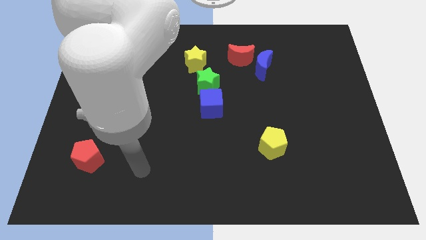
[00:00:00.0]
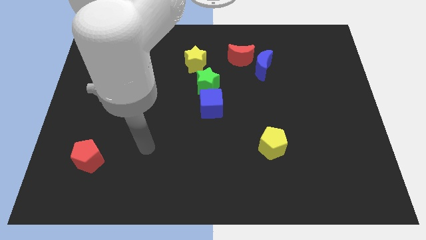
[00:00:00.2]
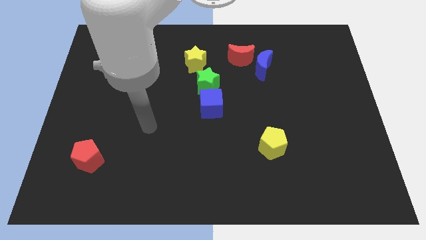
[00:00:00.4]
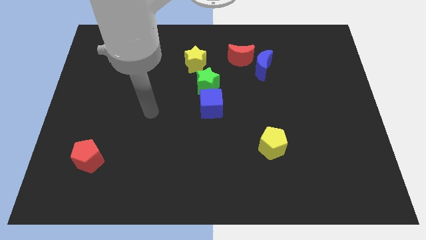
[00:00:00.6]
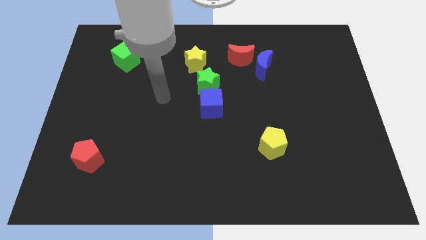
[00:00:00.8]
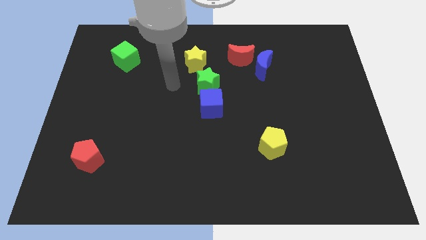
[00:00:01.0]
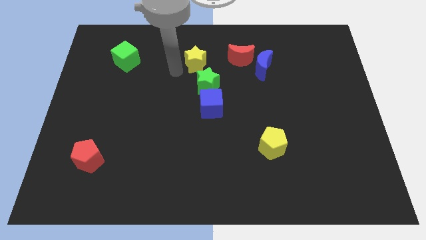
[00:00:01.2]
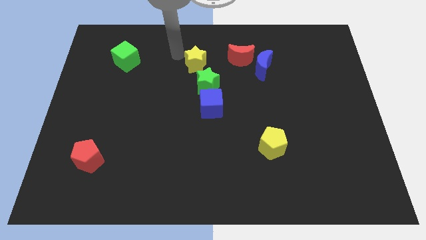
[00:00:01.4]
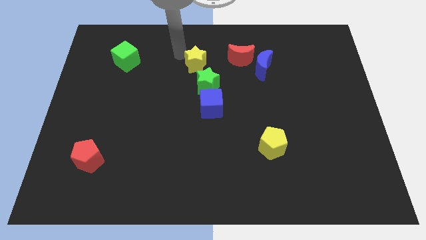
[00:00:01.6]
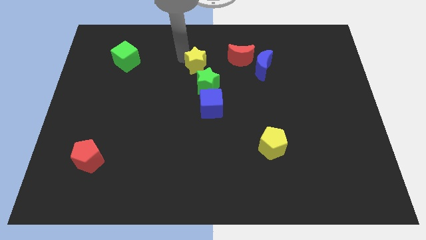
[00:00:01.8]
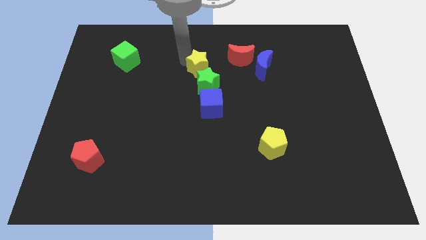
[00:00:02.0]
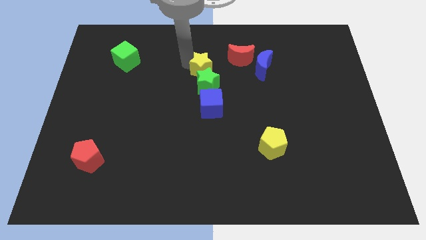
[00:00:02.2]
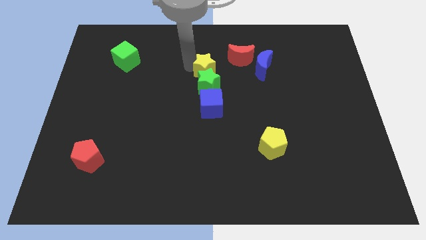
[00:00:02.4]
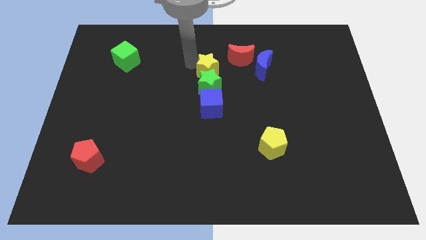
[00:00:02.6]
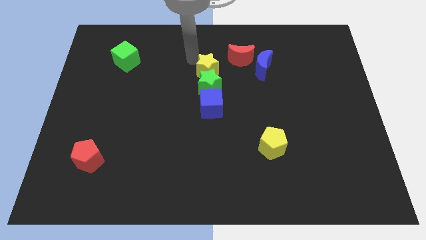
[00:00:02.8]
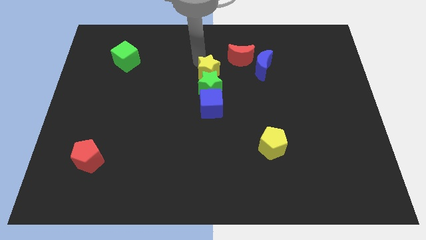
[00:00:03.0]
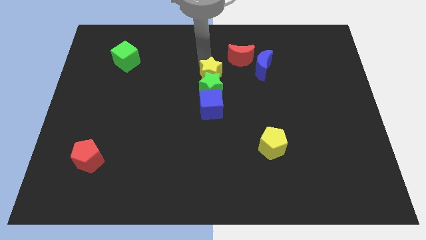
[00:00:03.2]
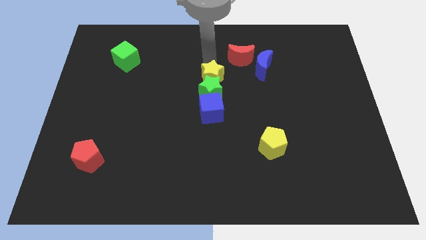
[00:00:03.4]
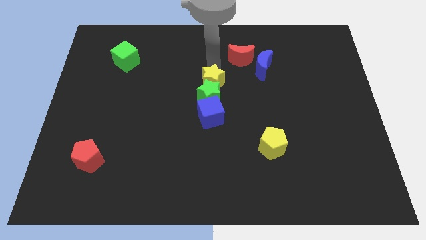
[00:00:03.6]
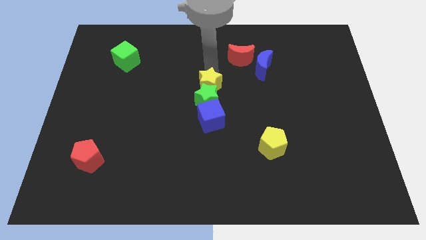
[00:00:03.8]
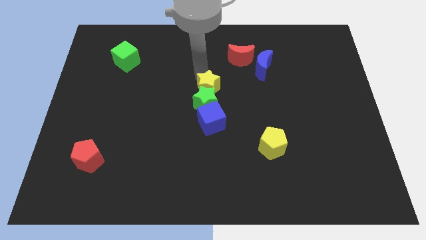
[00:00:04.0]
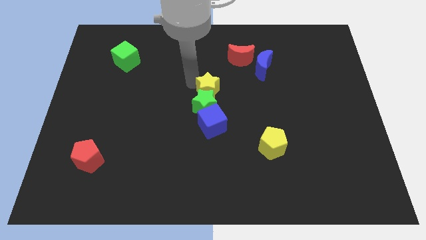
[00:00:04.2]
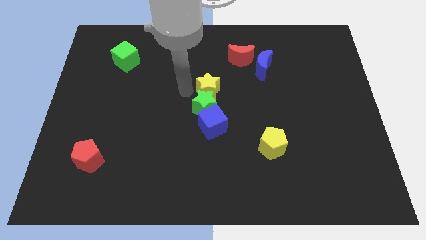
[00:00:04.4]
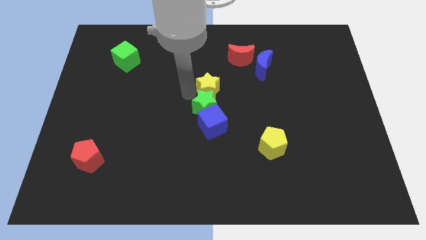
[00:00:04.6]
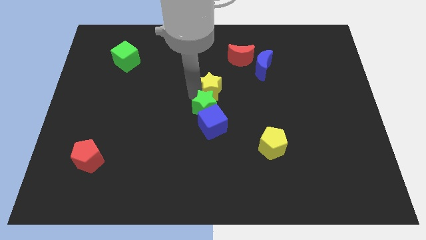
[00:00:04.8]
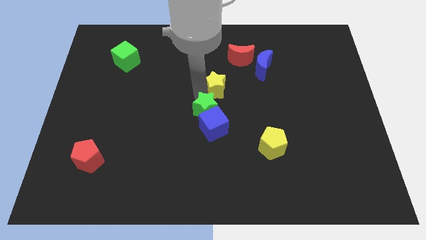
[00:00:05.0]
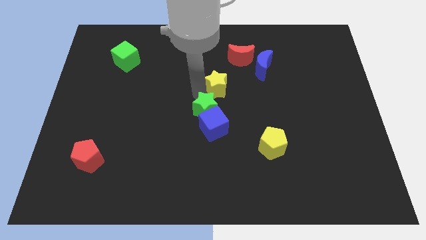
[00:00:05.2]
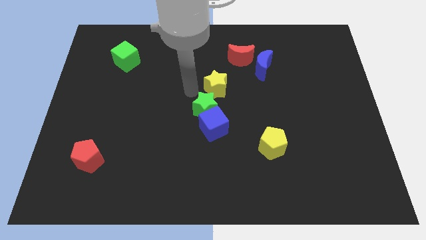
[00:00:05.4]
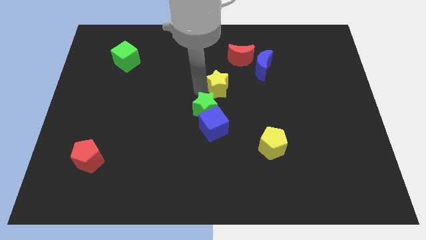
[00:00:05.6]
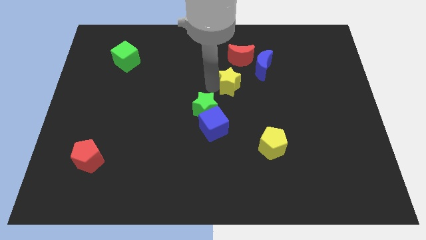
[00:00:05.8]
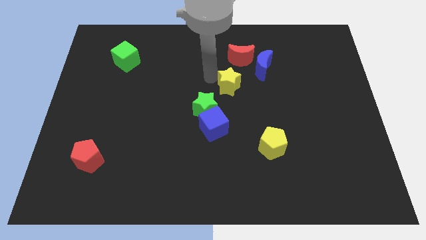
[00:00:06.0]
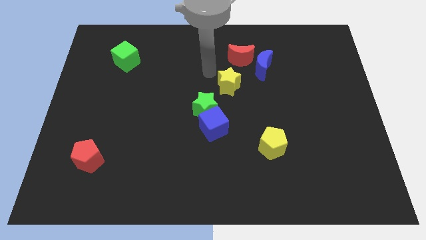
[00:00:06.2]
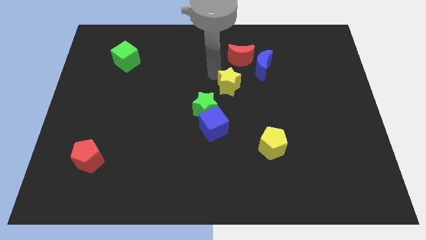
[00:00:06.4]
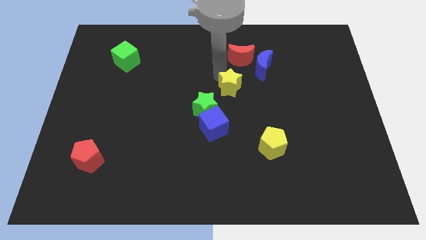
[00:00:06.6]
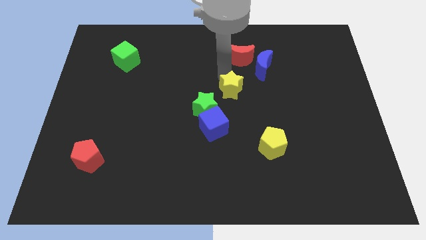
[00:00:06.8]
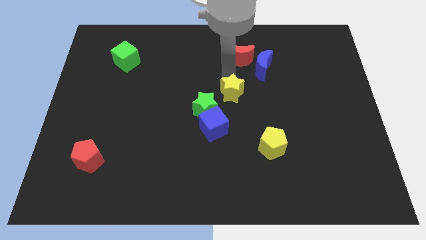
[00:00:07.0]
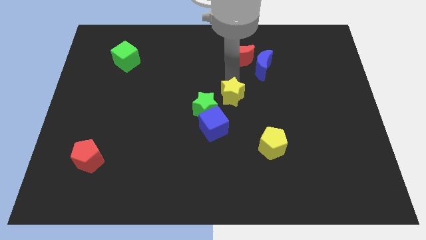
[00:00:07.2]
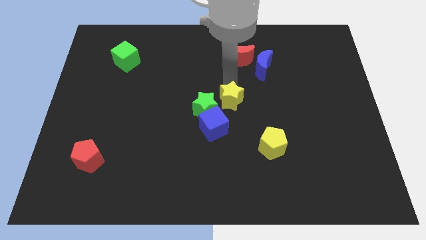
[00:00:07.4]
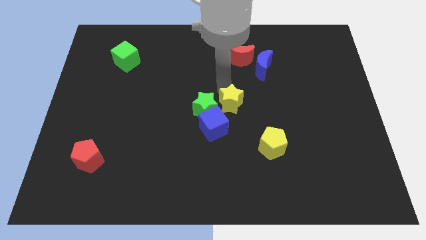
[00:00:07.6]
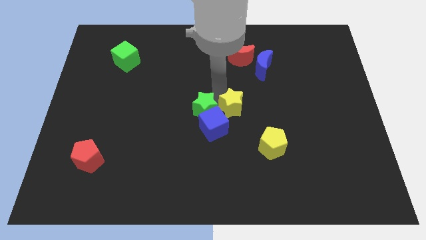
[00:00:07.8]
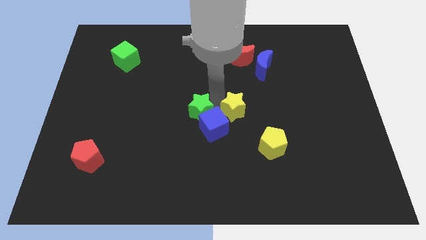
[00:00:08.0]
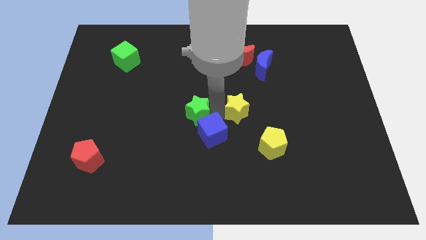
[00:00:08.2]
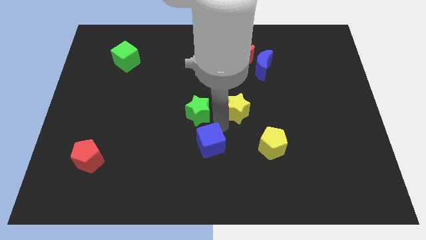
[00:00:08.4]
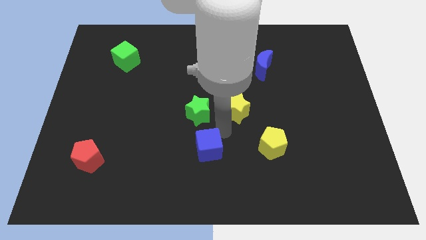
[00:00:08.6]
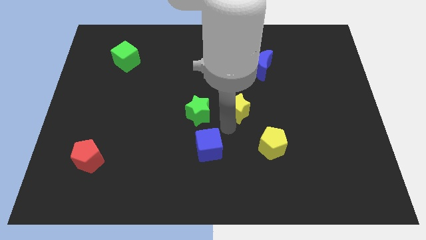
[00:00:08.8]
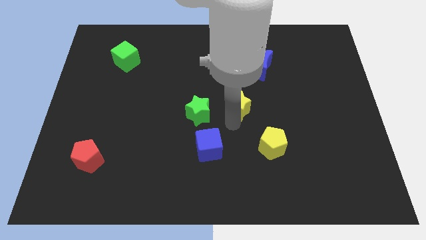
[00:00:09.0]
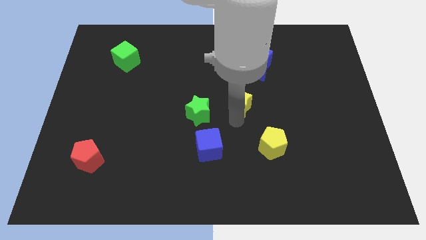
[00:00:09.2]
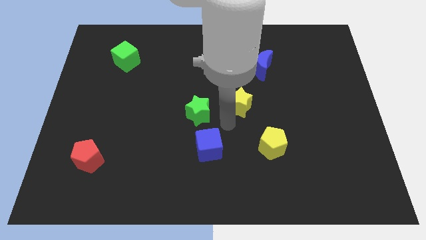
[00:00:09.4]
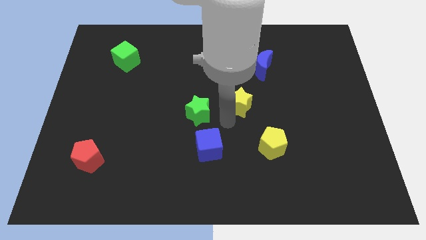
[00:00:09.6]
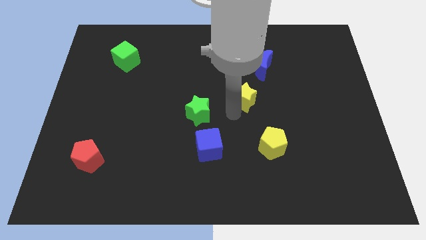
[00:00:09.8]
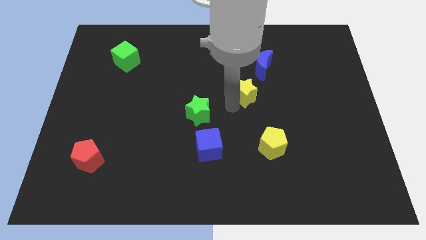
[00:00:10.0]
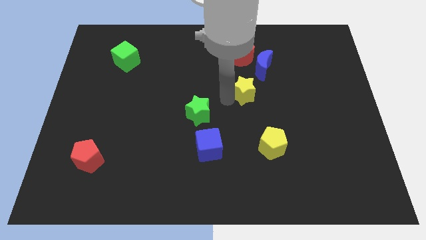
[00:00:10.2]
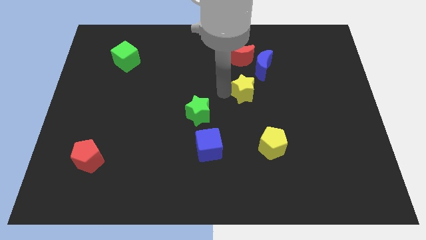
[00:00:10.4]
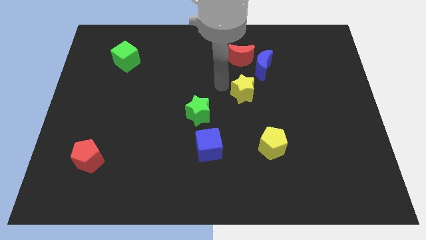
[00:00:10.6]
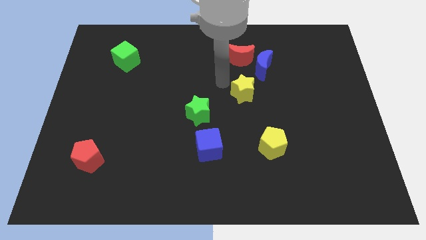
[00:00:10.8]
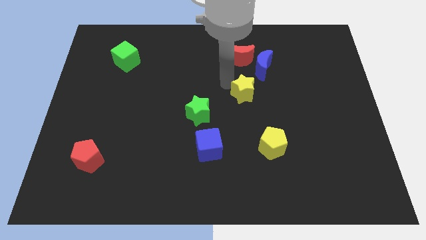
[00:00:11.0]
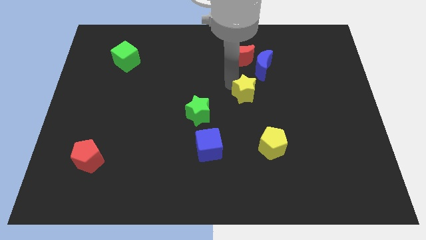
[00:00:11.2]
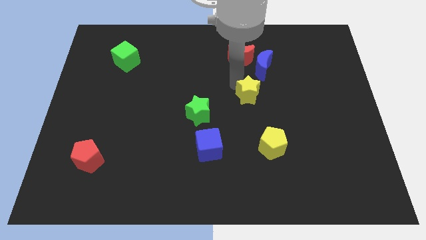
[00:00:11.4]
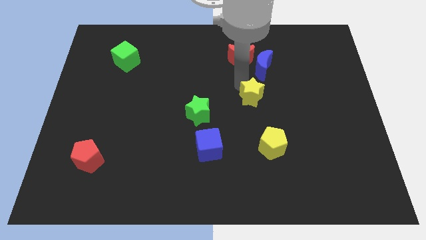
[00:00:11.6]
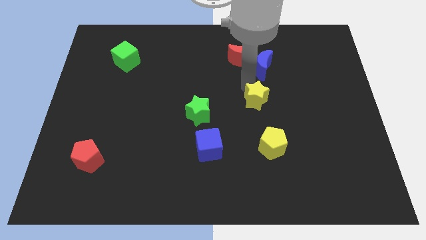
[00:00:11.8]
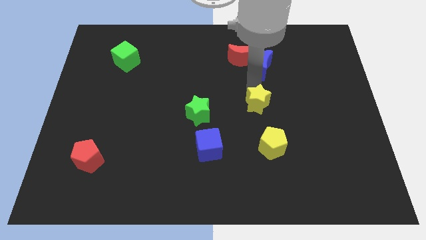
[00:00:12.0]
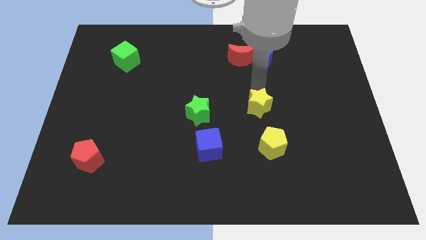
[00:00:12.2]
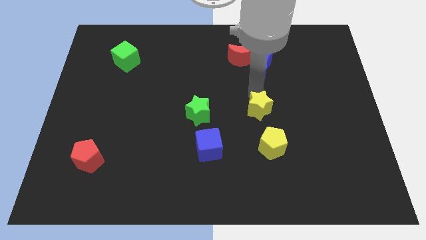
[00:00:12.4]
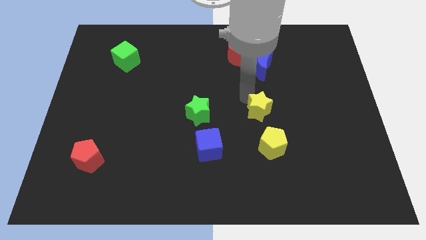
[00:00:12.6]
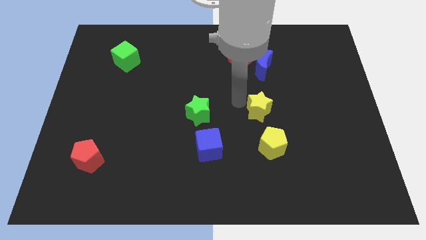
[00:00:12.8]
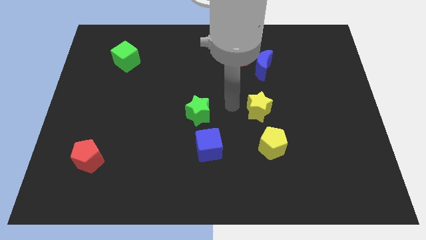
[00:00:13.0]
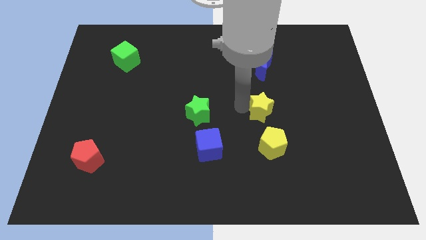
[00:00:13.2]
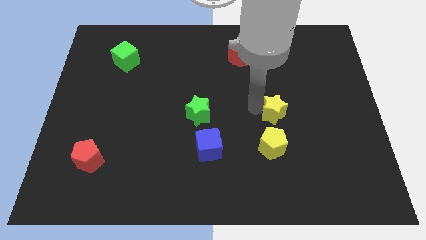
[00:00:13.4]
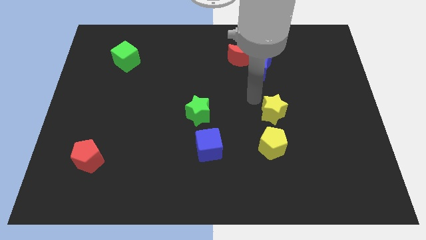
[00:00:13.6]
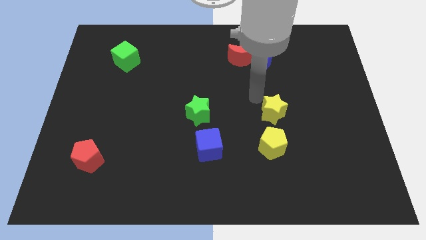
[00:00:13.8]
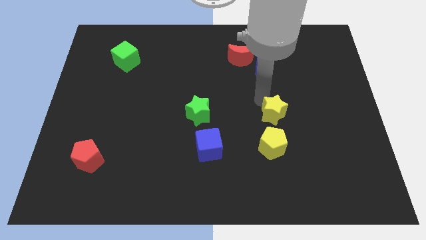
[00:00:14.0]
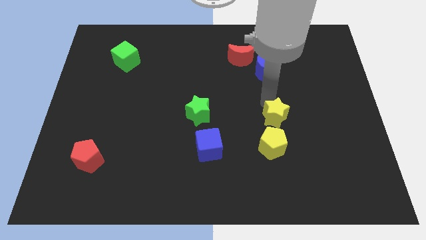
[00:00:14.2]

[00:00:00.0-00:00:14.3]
push the yellow star diagonally up and to the right of the yellow pentagon
